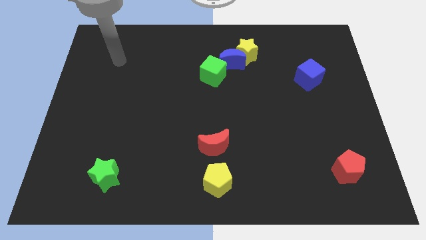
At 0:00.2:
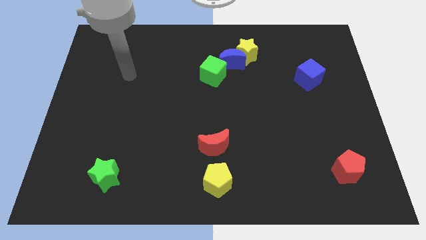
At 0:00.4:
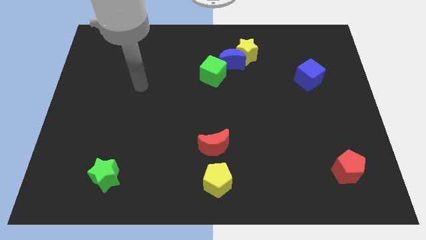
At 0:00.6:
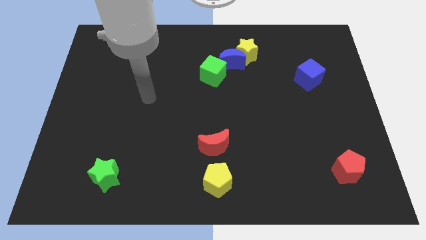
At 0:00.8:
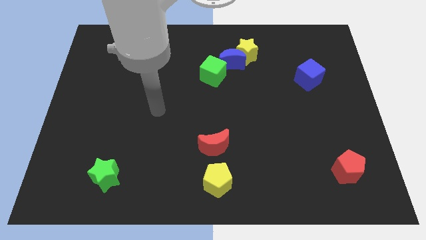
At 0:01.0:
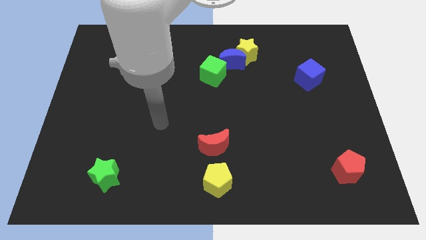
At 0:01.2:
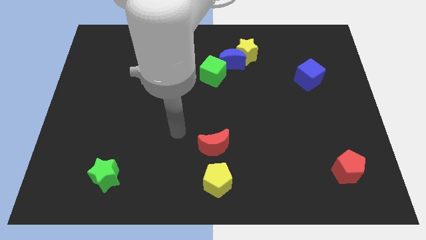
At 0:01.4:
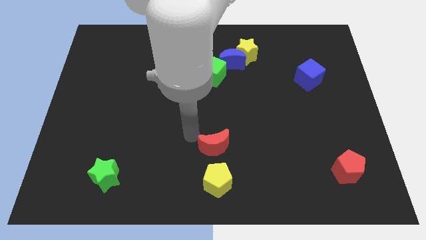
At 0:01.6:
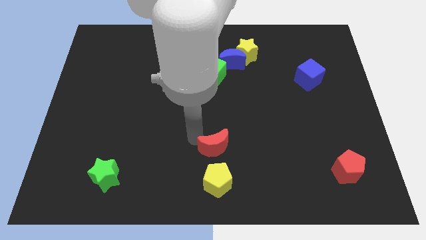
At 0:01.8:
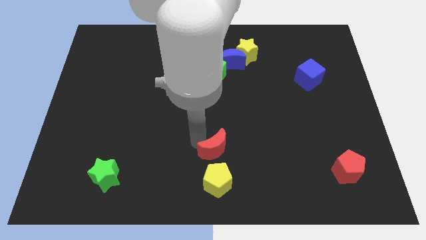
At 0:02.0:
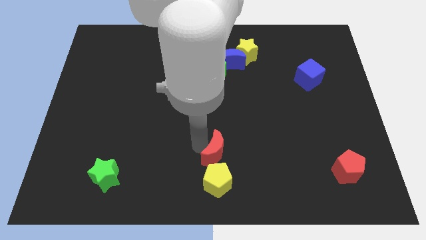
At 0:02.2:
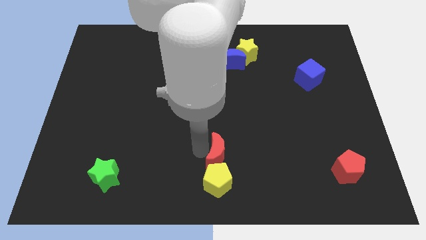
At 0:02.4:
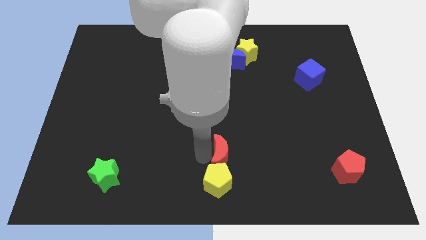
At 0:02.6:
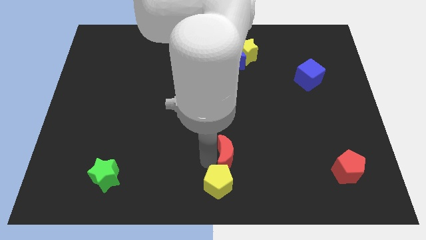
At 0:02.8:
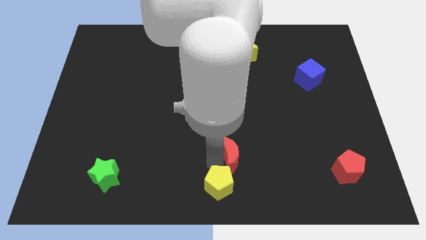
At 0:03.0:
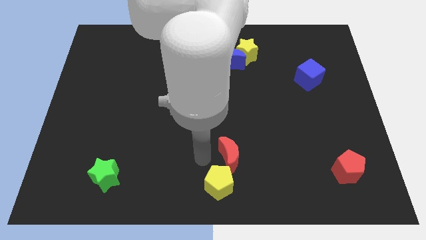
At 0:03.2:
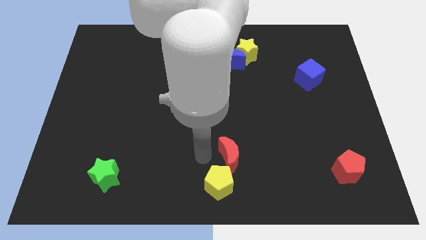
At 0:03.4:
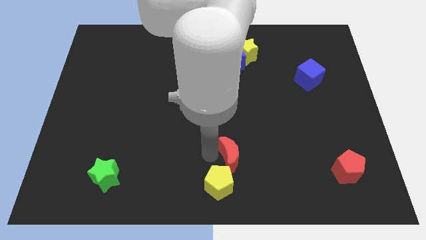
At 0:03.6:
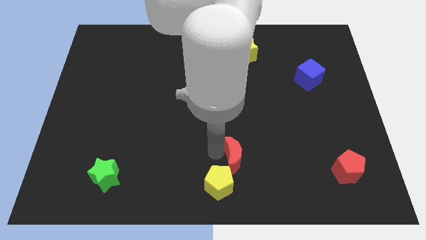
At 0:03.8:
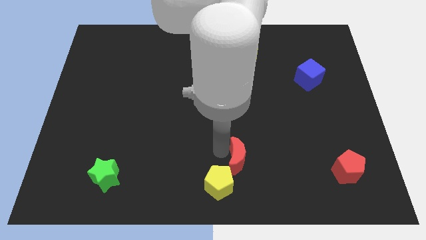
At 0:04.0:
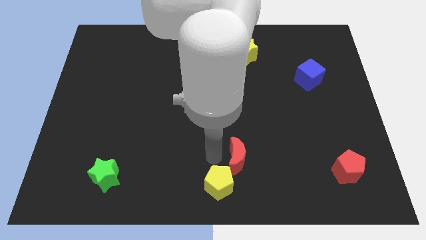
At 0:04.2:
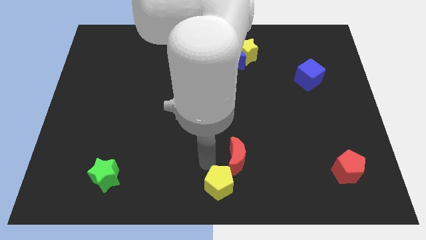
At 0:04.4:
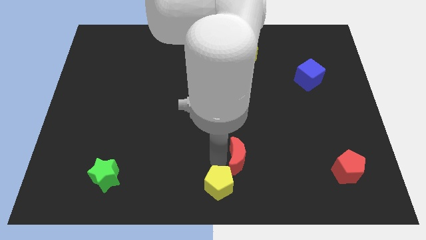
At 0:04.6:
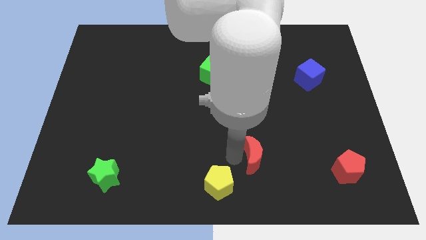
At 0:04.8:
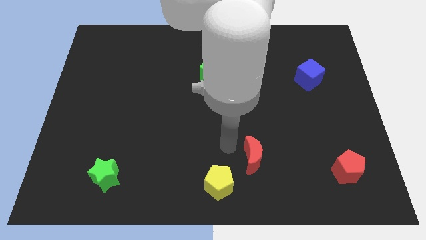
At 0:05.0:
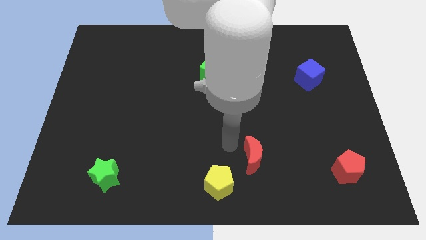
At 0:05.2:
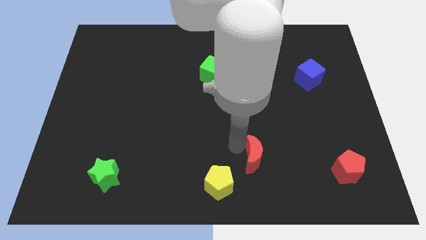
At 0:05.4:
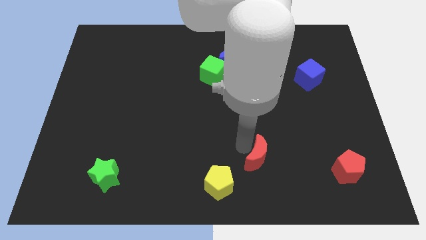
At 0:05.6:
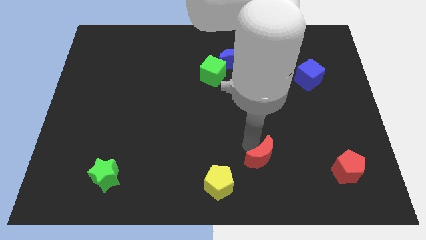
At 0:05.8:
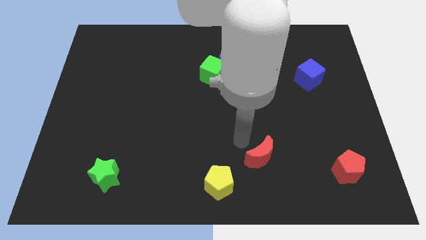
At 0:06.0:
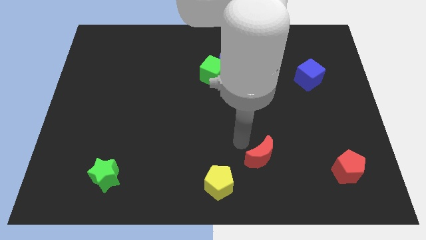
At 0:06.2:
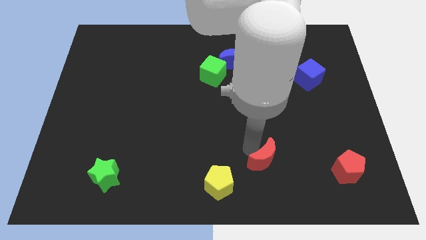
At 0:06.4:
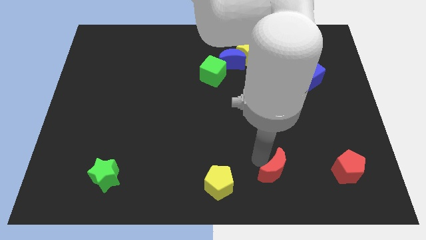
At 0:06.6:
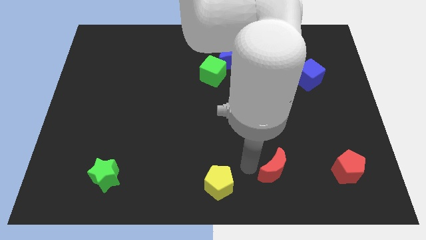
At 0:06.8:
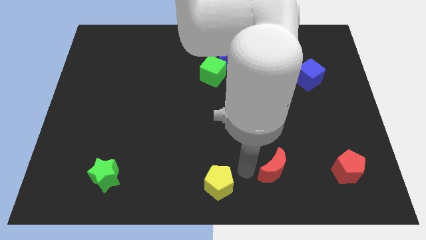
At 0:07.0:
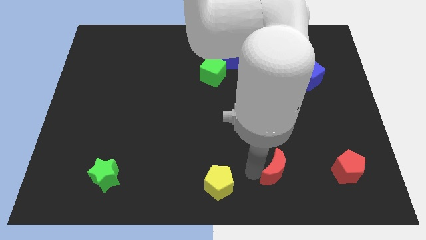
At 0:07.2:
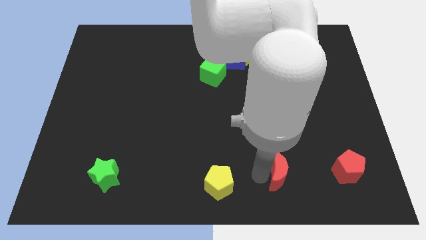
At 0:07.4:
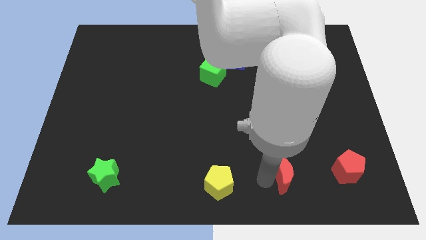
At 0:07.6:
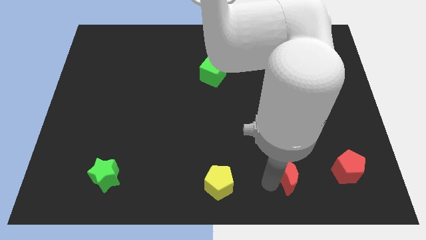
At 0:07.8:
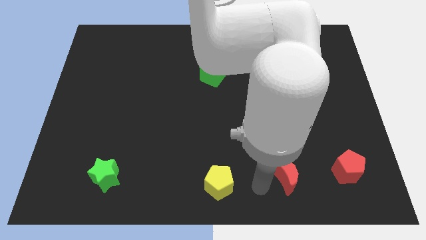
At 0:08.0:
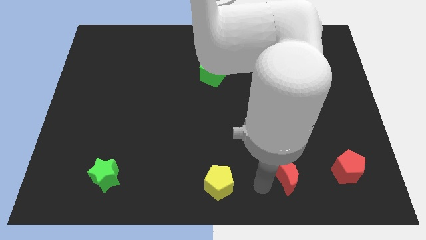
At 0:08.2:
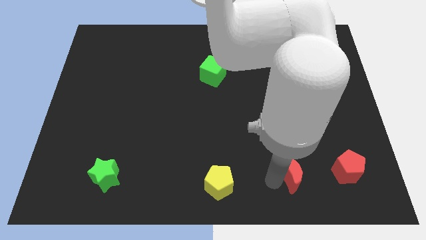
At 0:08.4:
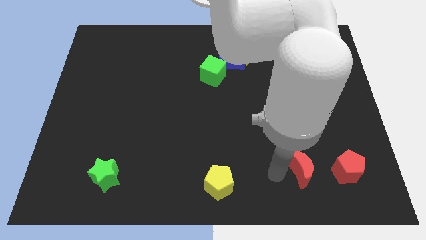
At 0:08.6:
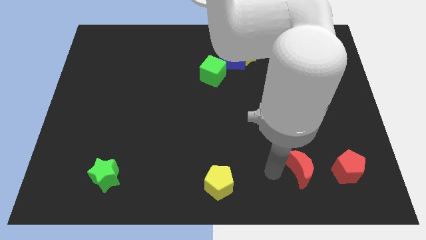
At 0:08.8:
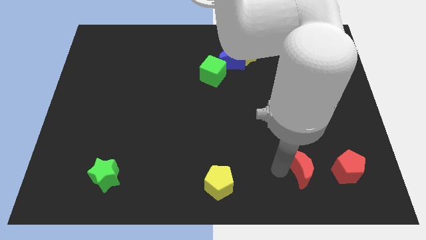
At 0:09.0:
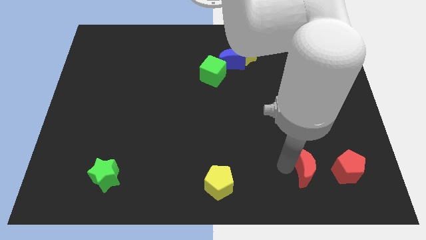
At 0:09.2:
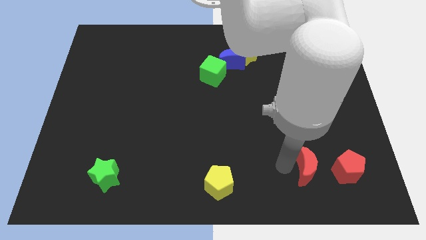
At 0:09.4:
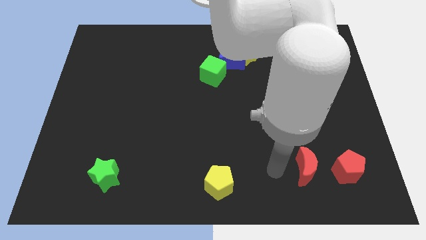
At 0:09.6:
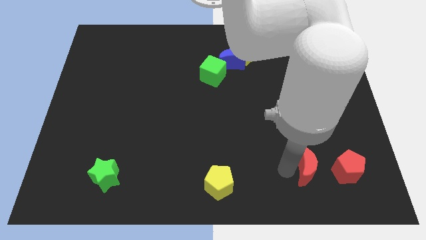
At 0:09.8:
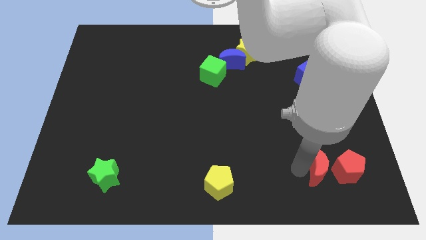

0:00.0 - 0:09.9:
move the red moon towards the red pentagon

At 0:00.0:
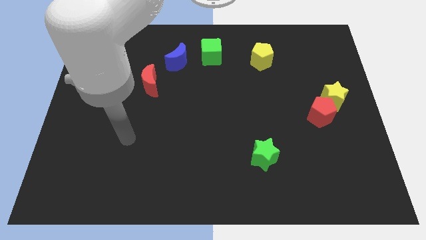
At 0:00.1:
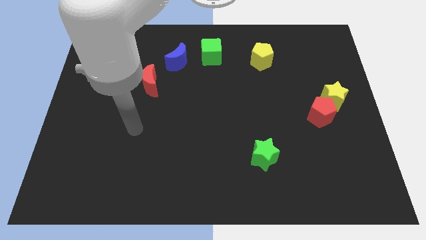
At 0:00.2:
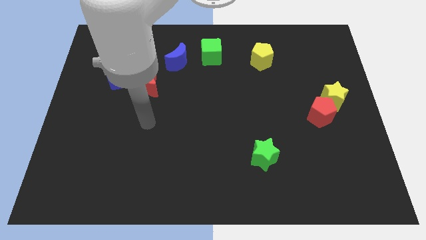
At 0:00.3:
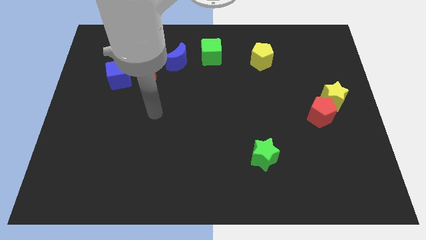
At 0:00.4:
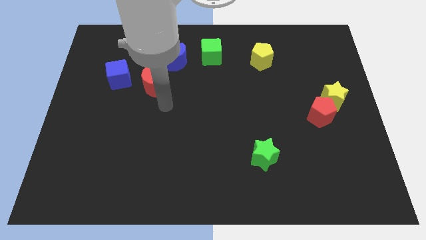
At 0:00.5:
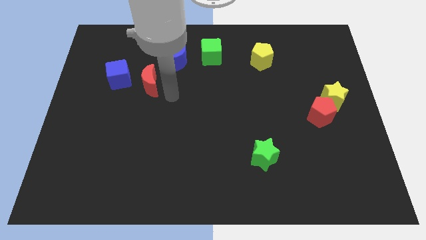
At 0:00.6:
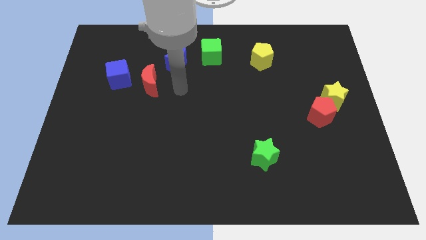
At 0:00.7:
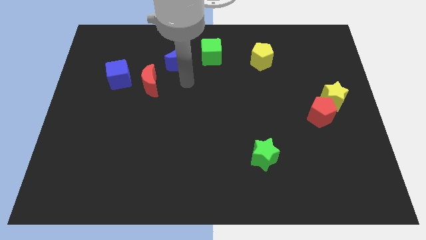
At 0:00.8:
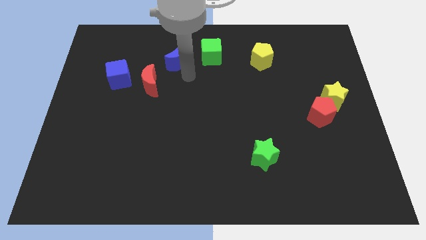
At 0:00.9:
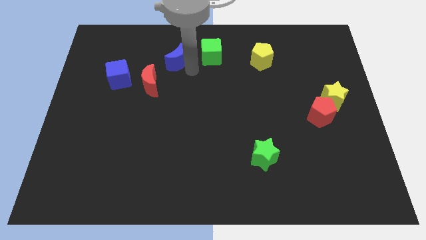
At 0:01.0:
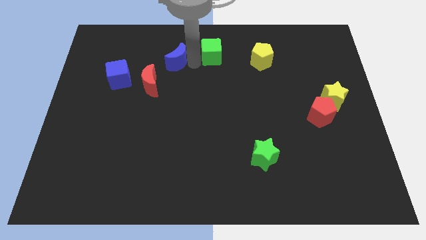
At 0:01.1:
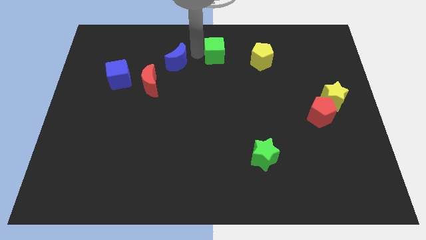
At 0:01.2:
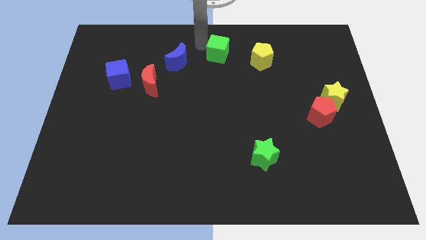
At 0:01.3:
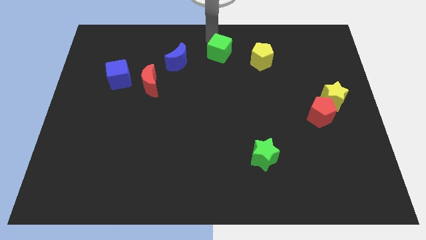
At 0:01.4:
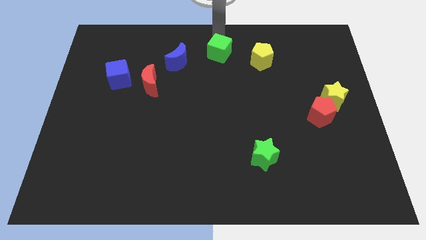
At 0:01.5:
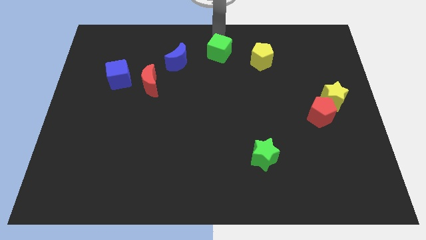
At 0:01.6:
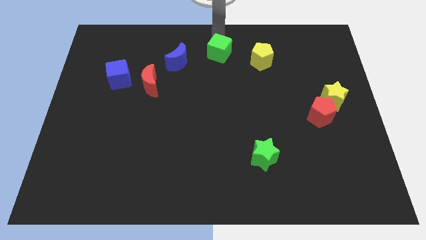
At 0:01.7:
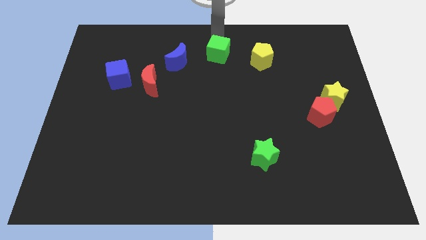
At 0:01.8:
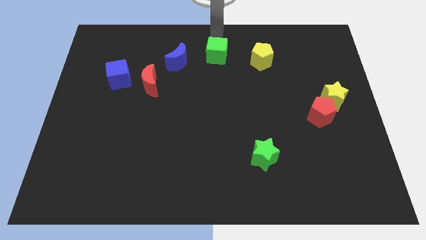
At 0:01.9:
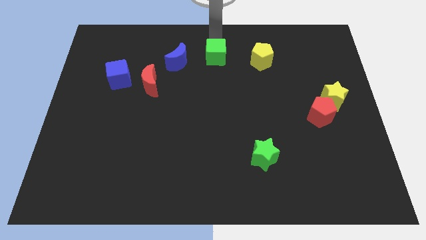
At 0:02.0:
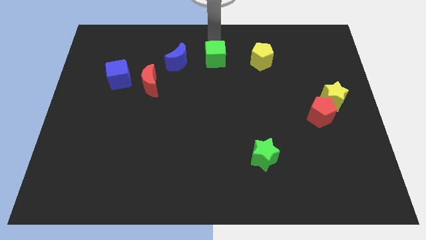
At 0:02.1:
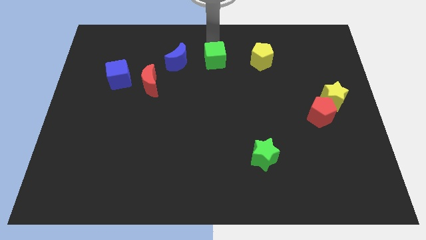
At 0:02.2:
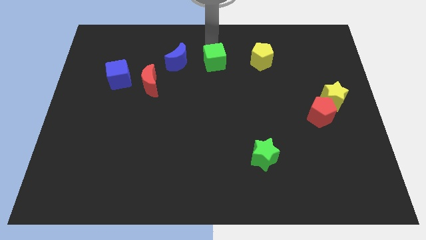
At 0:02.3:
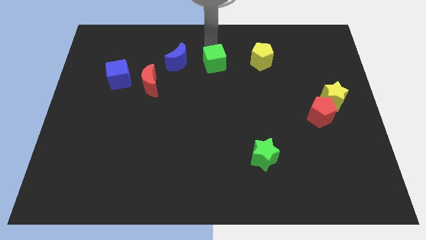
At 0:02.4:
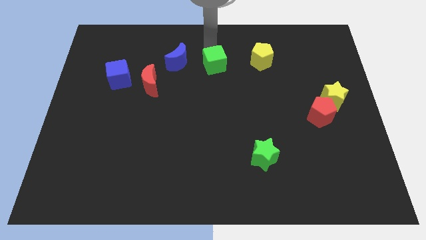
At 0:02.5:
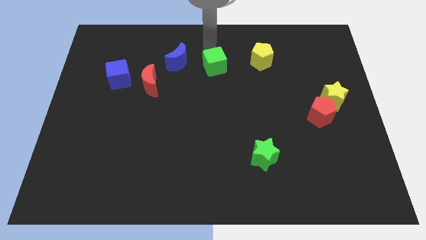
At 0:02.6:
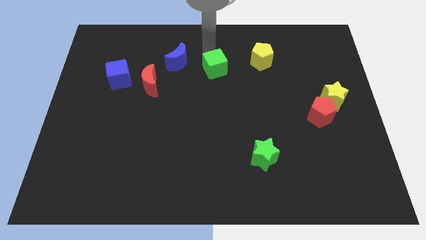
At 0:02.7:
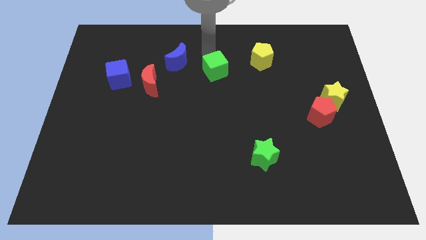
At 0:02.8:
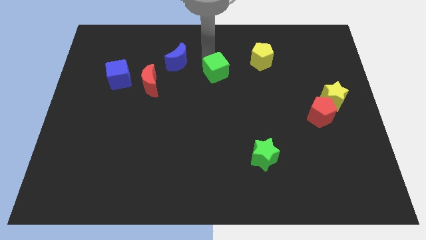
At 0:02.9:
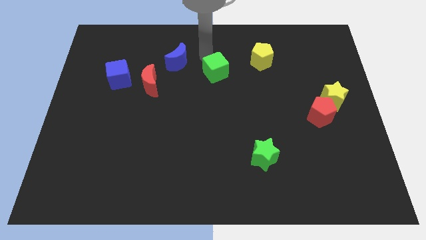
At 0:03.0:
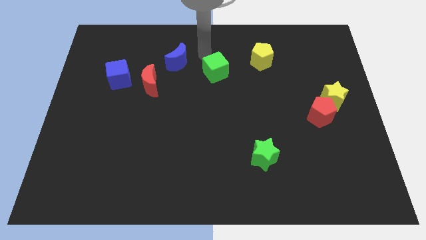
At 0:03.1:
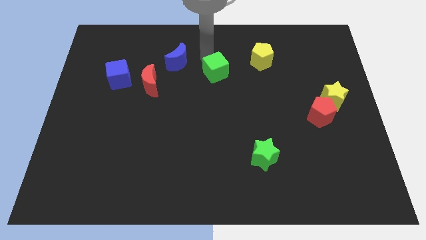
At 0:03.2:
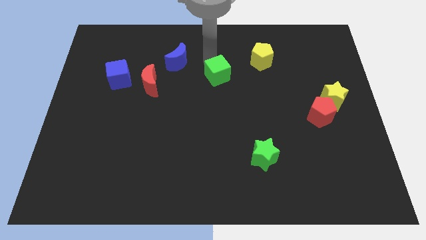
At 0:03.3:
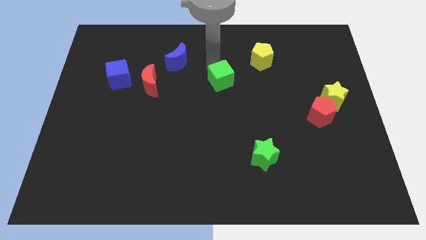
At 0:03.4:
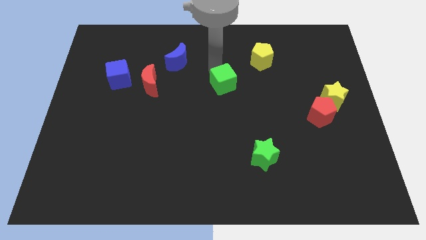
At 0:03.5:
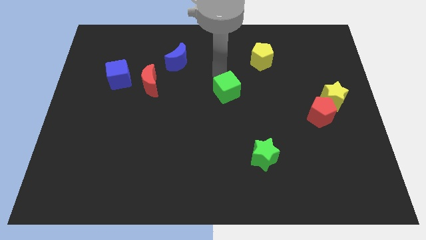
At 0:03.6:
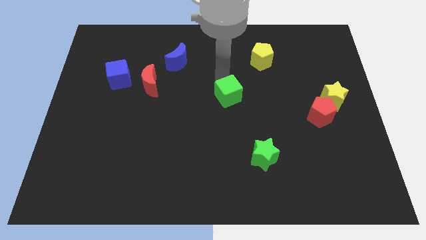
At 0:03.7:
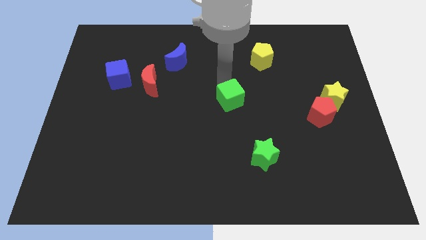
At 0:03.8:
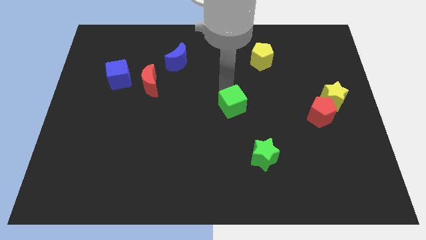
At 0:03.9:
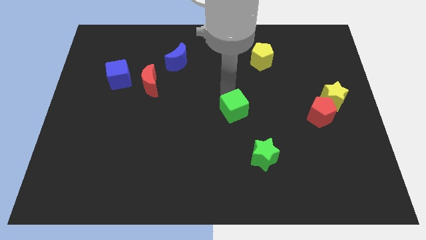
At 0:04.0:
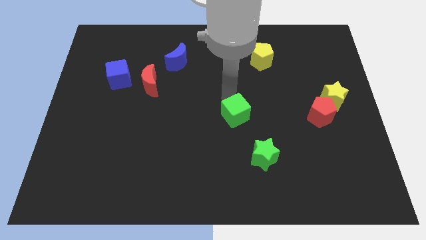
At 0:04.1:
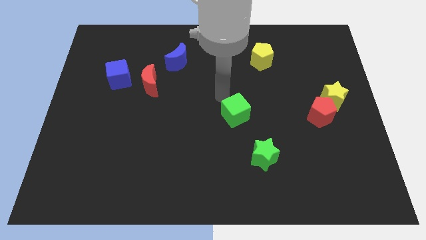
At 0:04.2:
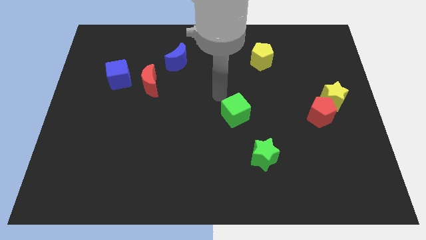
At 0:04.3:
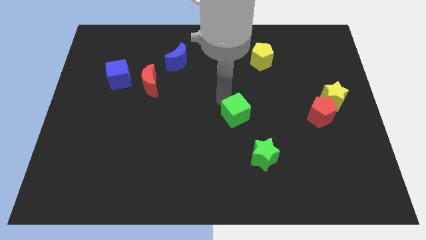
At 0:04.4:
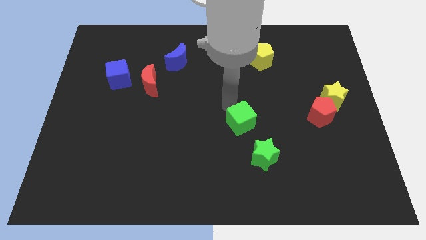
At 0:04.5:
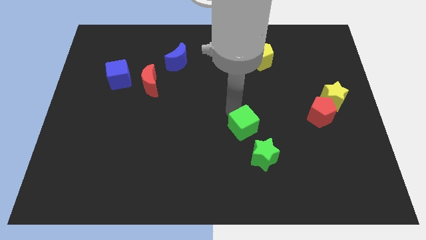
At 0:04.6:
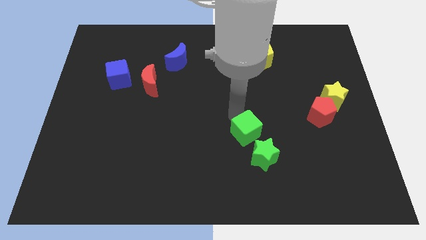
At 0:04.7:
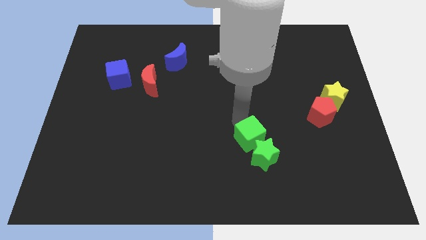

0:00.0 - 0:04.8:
slide the green cube towards the green star
